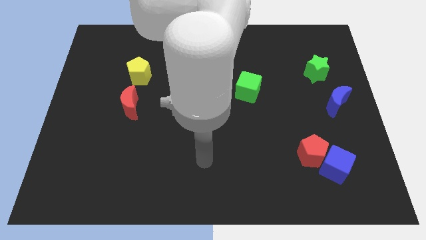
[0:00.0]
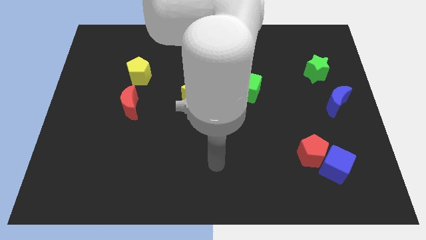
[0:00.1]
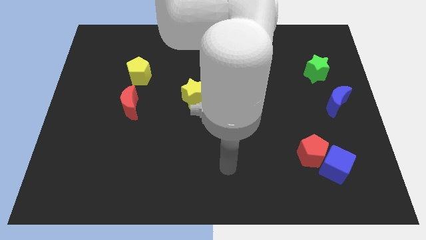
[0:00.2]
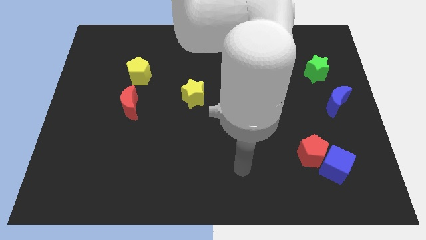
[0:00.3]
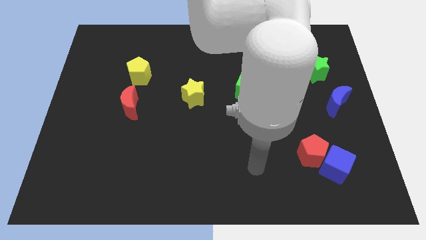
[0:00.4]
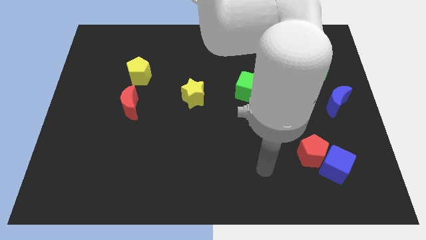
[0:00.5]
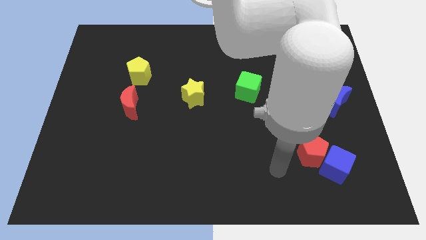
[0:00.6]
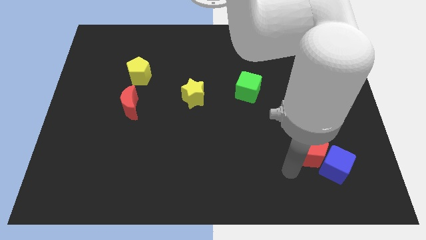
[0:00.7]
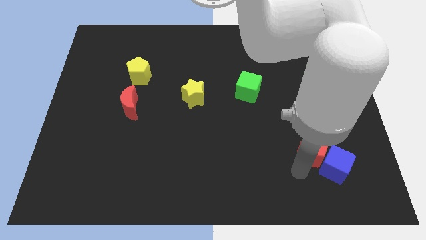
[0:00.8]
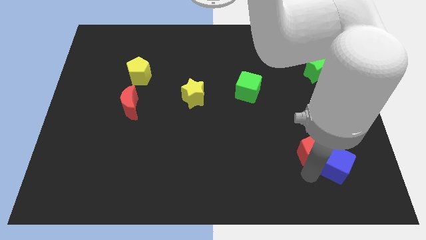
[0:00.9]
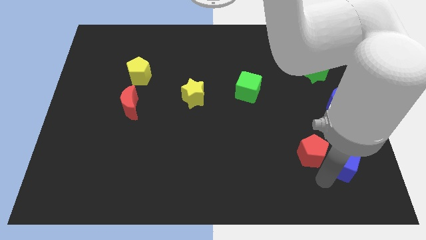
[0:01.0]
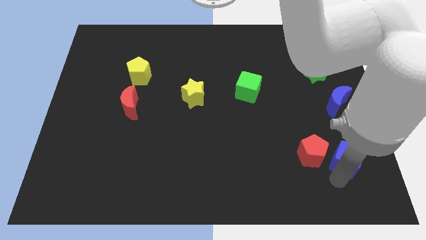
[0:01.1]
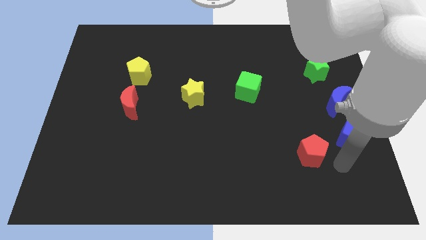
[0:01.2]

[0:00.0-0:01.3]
separate the red pentagon from the blue cube

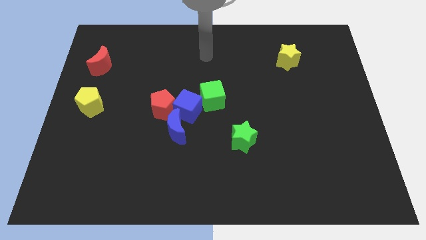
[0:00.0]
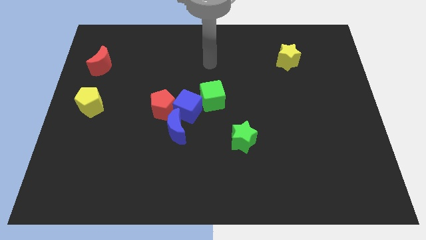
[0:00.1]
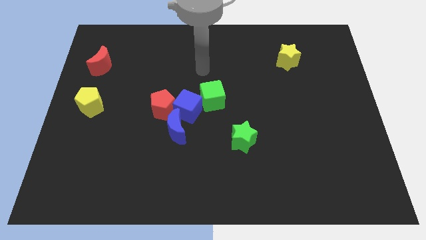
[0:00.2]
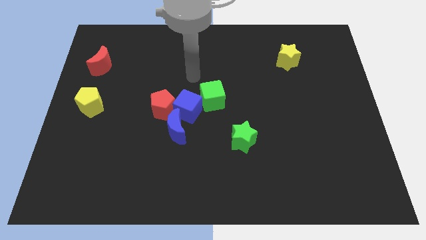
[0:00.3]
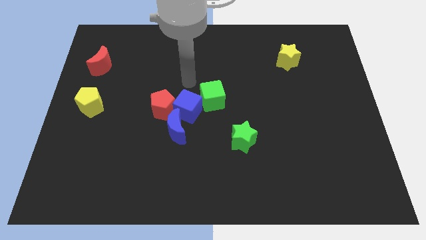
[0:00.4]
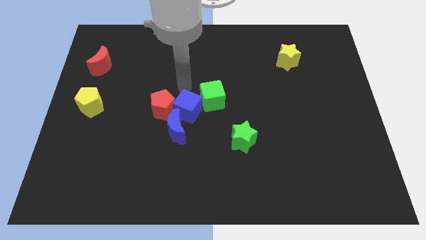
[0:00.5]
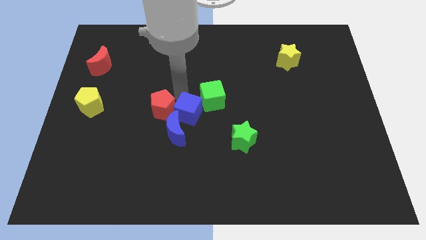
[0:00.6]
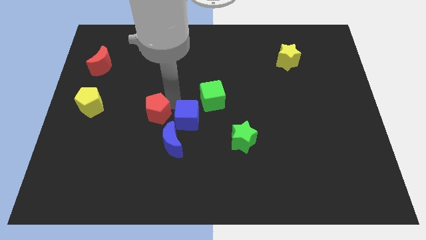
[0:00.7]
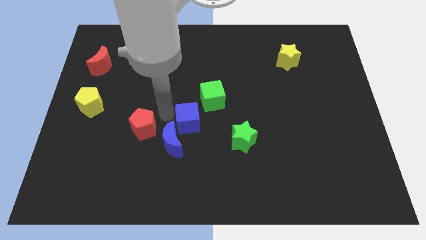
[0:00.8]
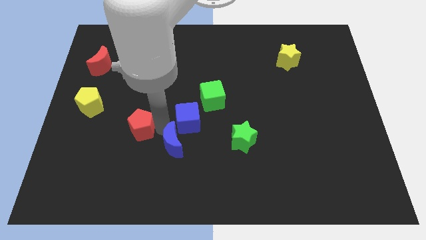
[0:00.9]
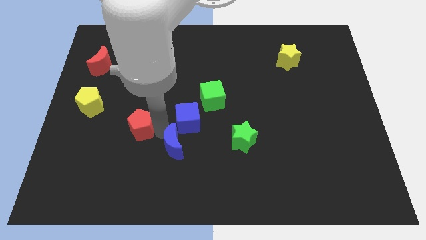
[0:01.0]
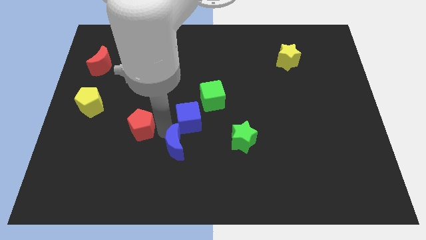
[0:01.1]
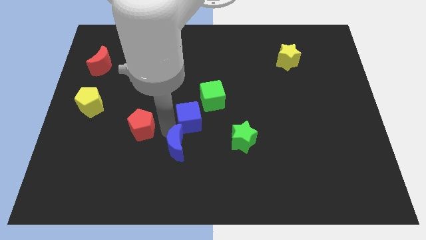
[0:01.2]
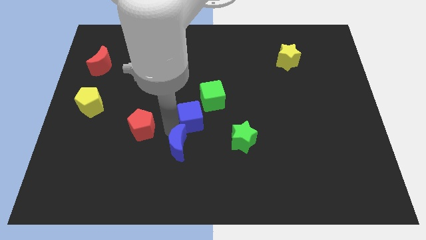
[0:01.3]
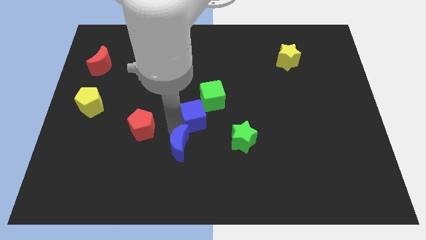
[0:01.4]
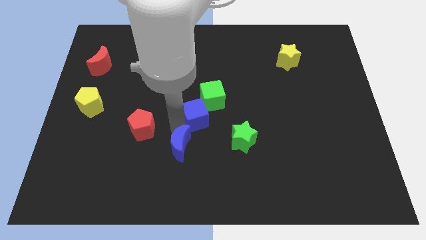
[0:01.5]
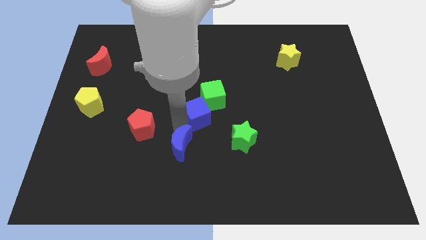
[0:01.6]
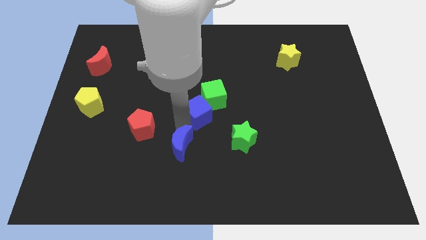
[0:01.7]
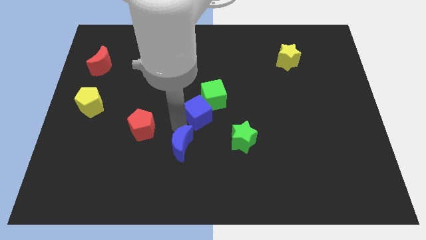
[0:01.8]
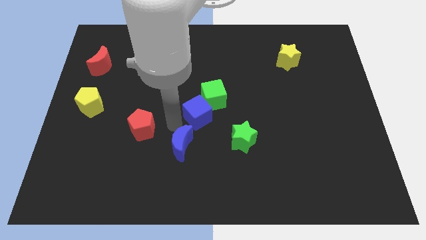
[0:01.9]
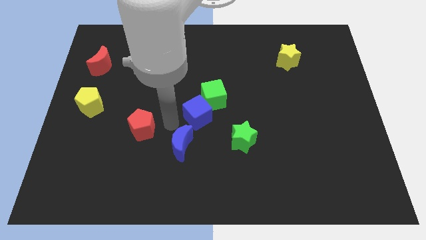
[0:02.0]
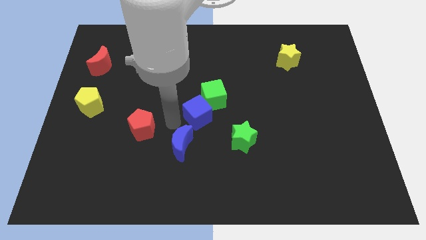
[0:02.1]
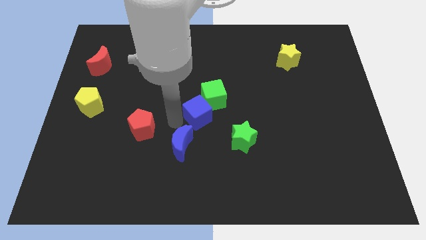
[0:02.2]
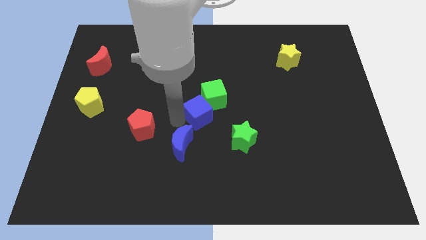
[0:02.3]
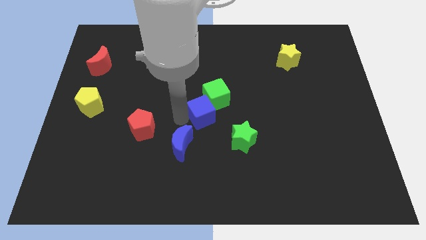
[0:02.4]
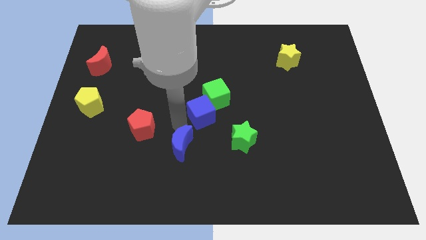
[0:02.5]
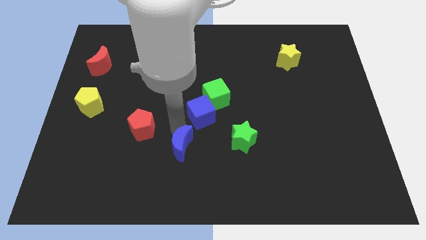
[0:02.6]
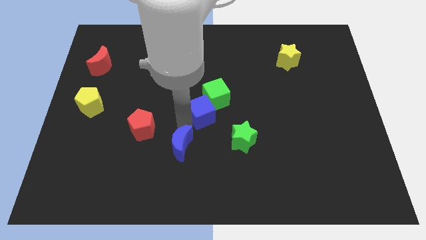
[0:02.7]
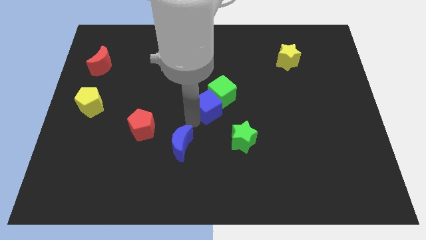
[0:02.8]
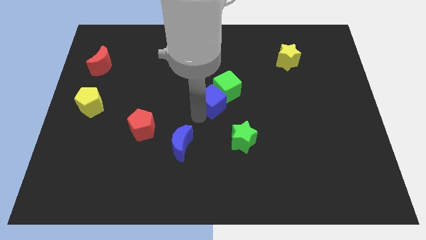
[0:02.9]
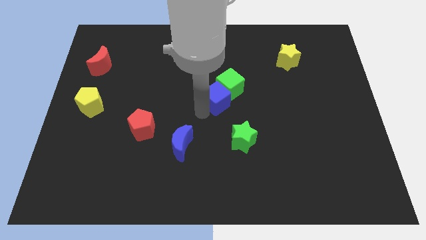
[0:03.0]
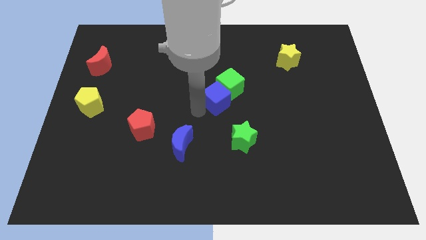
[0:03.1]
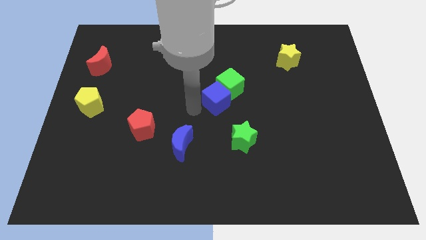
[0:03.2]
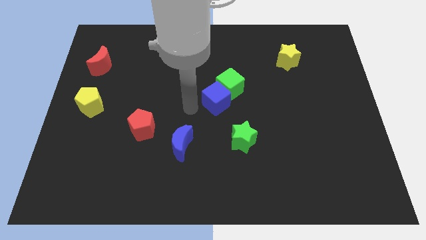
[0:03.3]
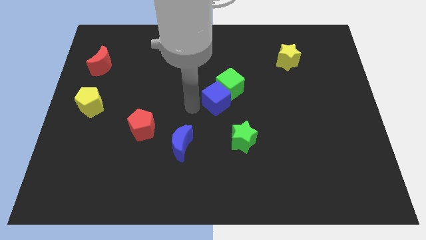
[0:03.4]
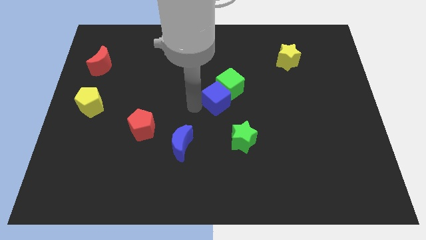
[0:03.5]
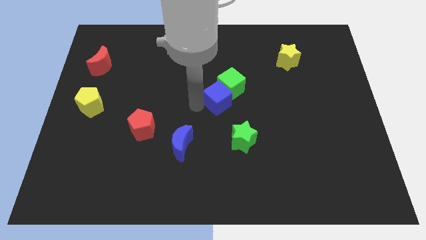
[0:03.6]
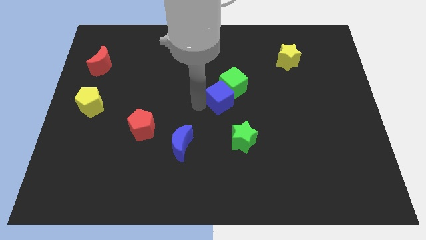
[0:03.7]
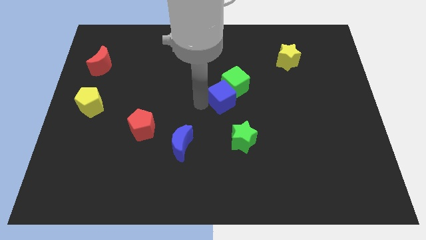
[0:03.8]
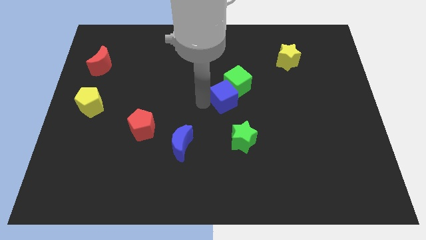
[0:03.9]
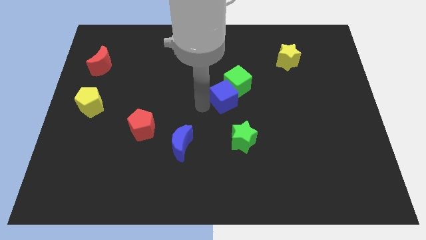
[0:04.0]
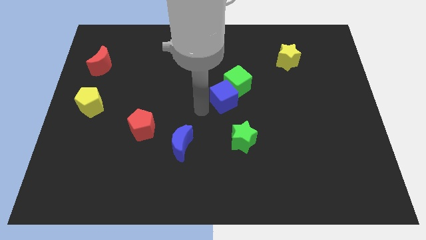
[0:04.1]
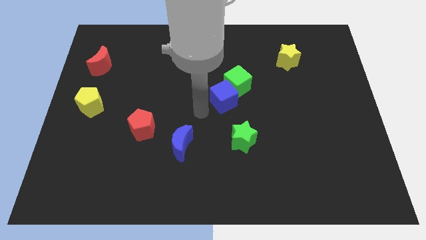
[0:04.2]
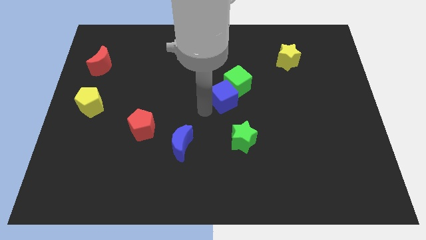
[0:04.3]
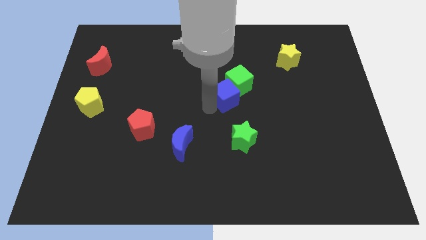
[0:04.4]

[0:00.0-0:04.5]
move the blue cube away from the clump

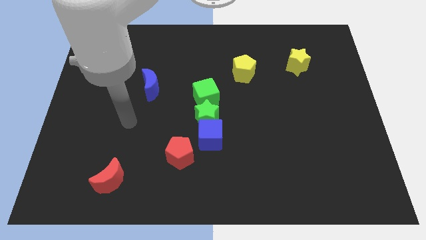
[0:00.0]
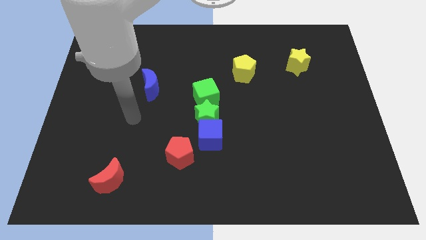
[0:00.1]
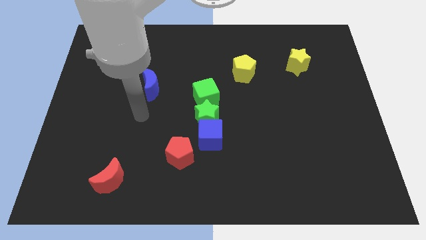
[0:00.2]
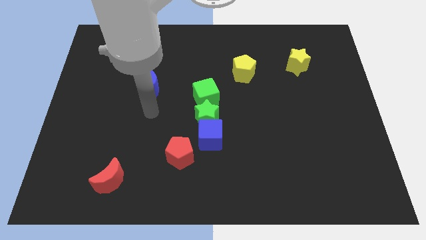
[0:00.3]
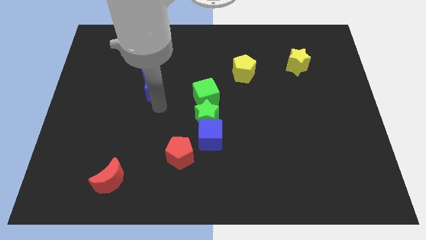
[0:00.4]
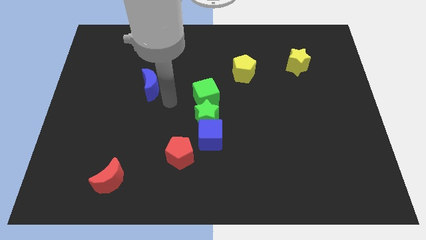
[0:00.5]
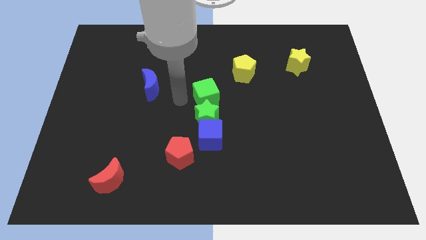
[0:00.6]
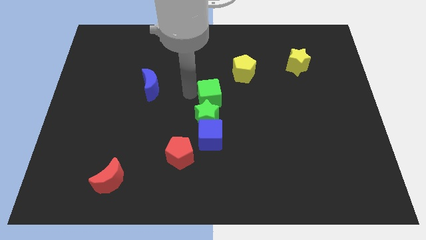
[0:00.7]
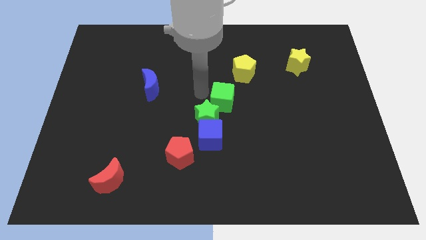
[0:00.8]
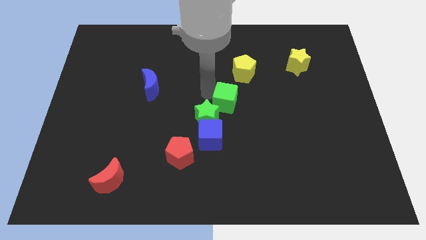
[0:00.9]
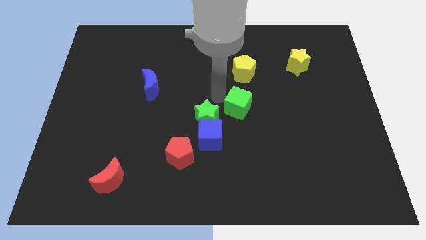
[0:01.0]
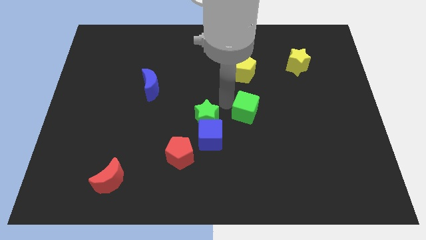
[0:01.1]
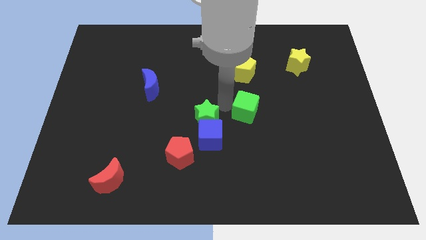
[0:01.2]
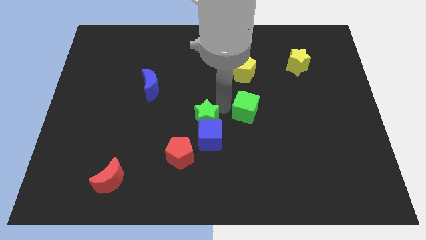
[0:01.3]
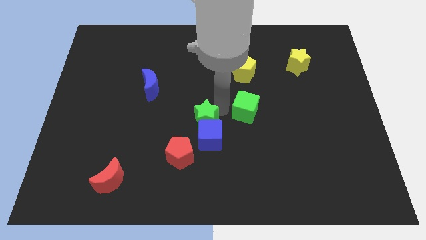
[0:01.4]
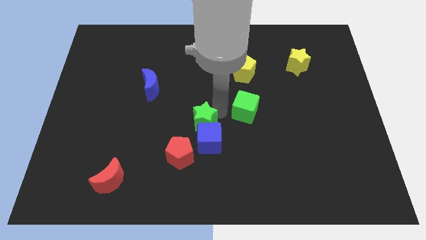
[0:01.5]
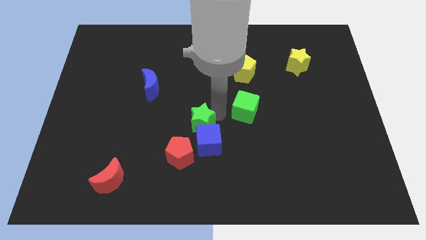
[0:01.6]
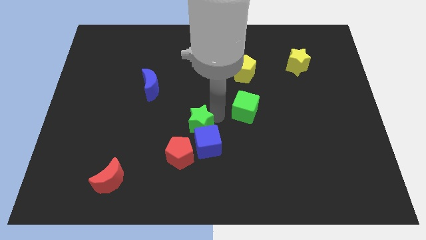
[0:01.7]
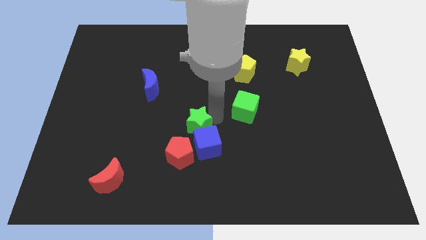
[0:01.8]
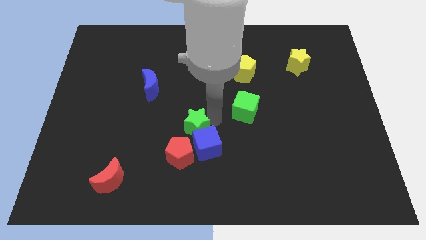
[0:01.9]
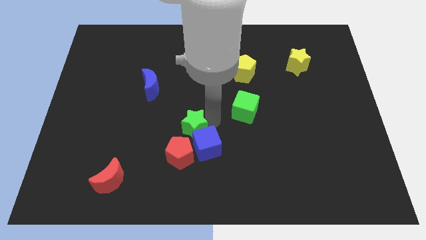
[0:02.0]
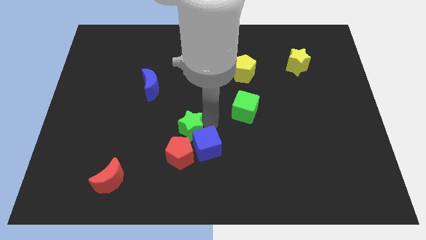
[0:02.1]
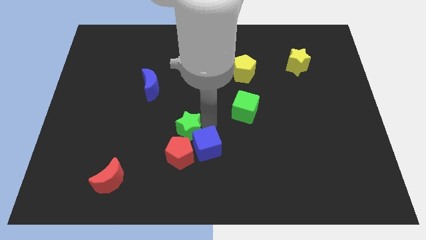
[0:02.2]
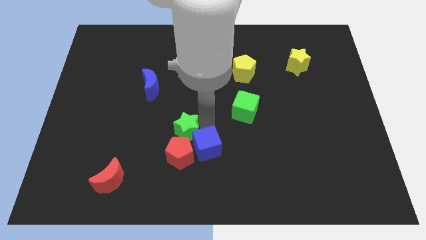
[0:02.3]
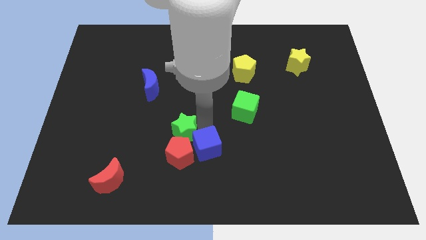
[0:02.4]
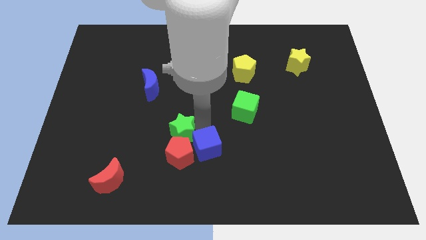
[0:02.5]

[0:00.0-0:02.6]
pull the green star apart from the blue cube and green cube

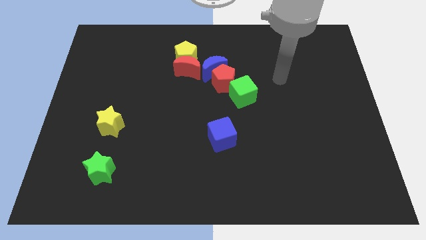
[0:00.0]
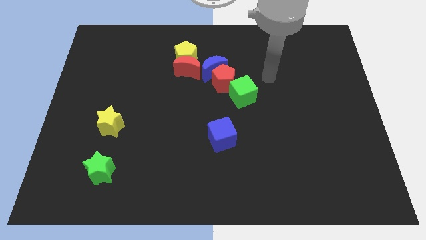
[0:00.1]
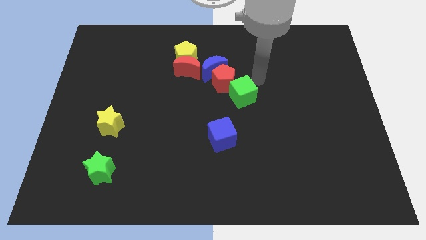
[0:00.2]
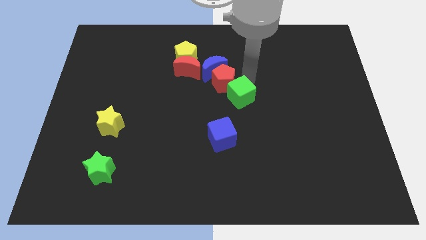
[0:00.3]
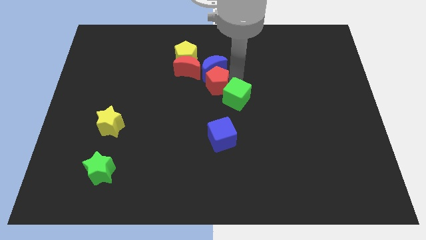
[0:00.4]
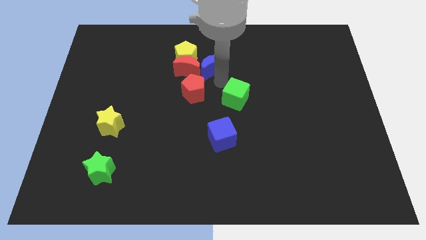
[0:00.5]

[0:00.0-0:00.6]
separate the green cube from the red pentagon

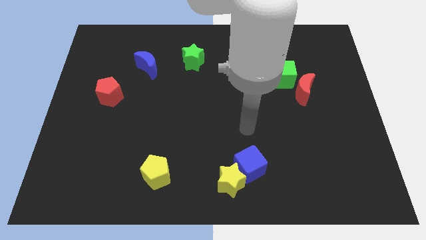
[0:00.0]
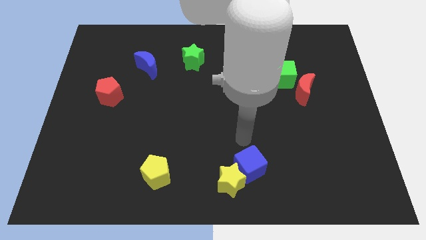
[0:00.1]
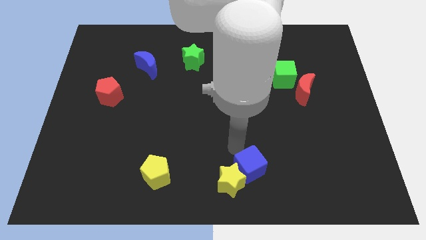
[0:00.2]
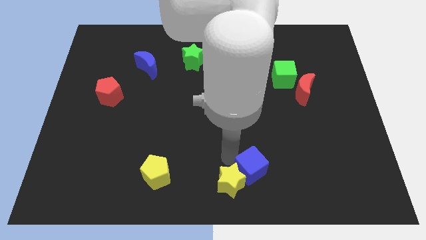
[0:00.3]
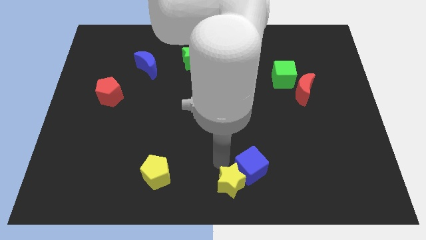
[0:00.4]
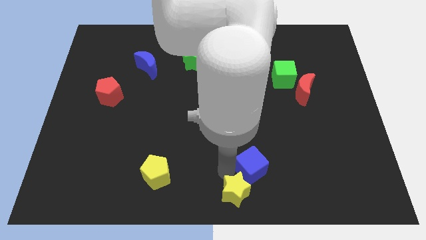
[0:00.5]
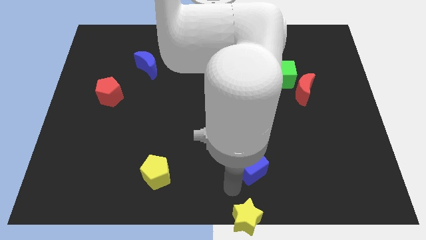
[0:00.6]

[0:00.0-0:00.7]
pull the blue cube apart from the yellow star
